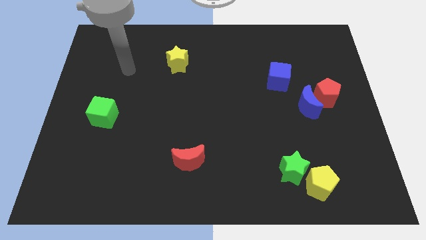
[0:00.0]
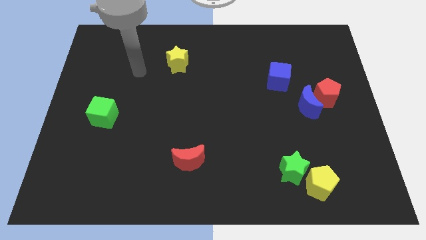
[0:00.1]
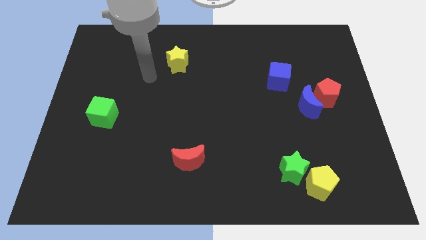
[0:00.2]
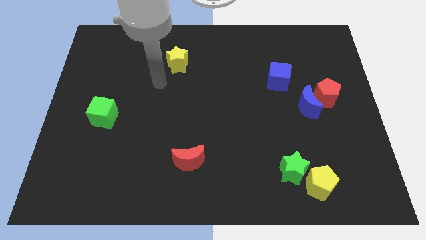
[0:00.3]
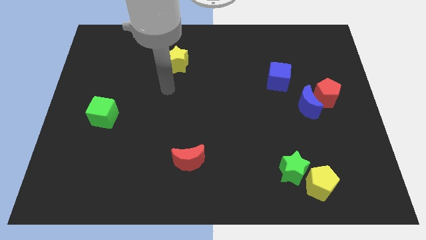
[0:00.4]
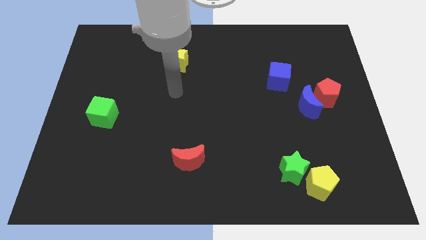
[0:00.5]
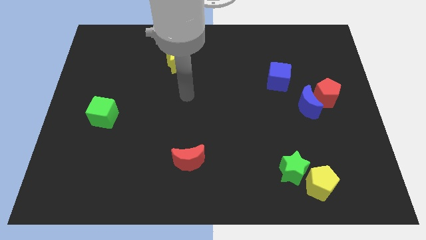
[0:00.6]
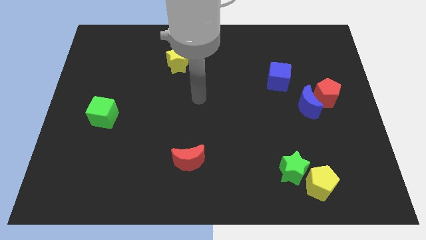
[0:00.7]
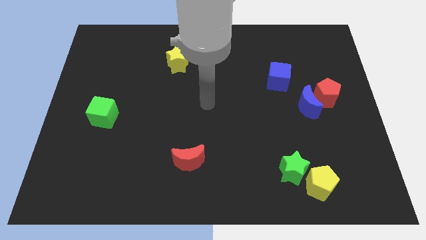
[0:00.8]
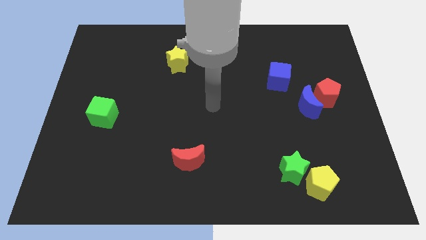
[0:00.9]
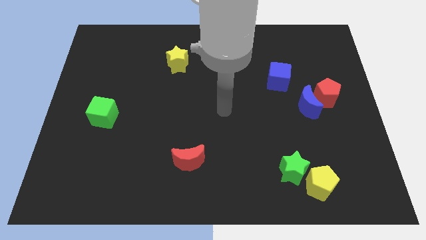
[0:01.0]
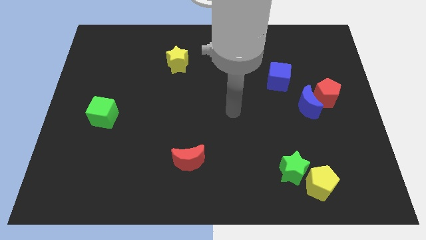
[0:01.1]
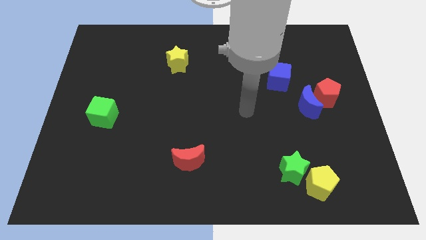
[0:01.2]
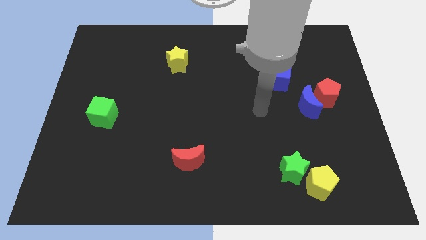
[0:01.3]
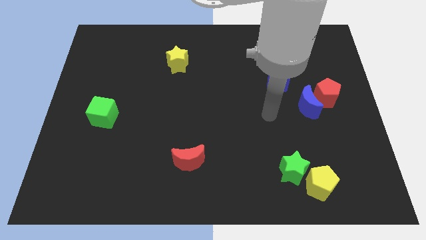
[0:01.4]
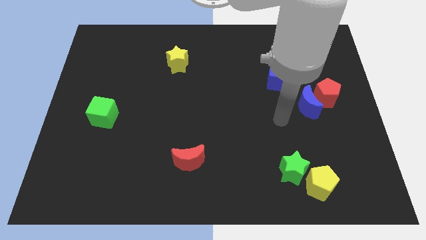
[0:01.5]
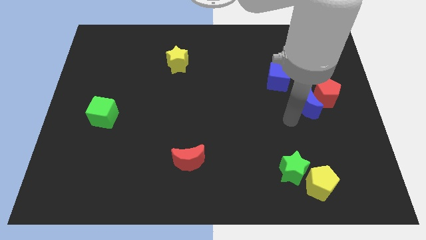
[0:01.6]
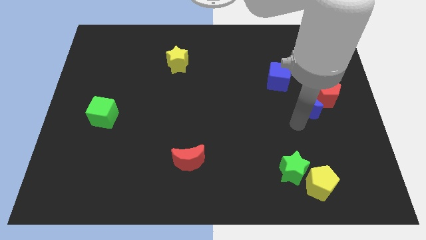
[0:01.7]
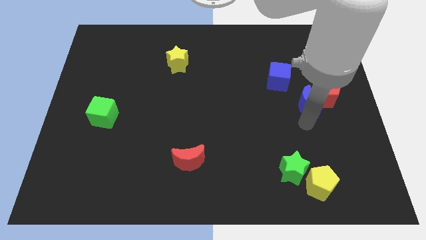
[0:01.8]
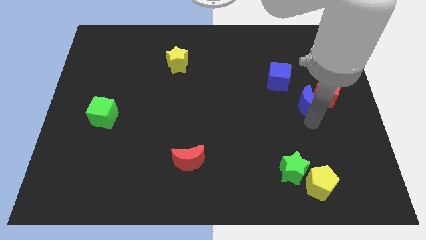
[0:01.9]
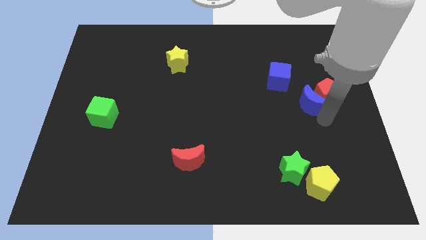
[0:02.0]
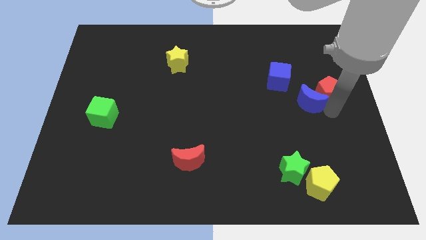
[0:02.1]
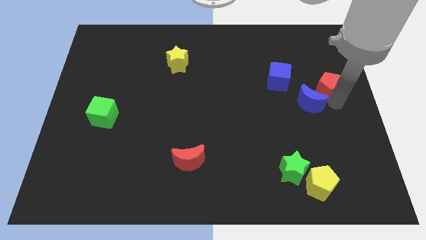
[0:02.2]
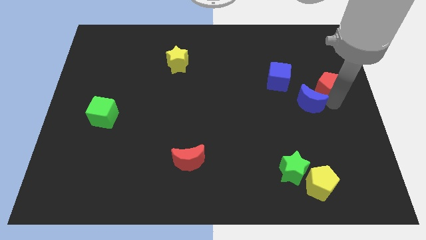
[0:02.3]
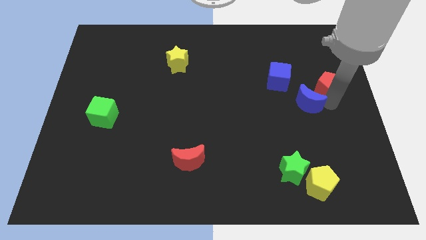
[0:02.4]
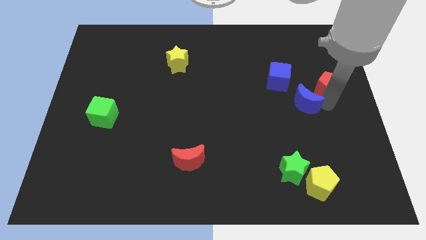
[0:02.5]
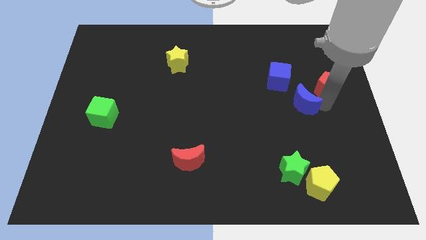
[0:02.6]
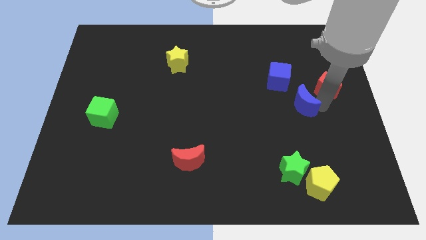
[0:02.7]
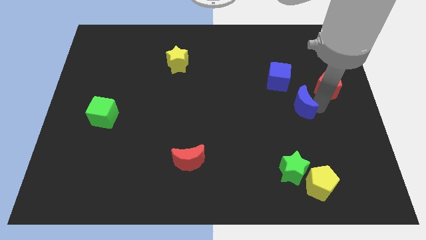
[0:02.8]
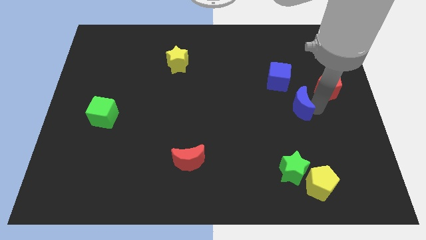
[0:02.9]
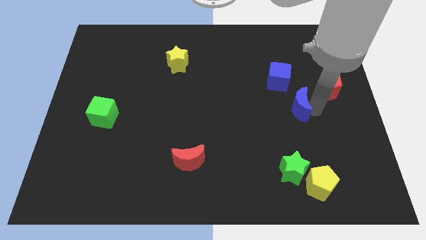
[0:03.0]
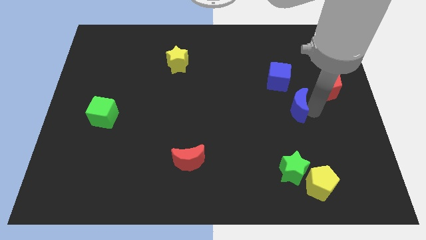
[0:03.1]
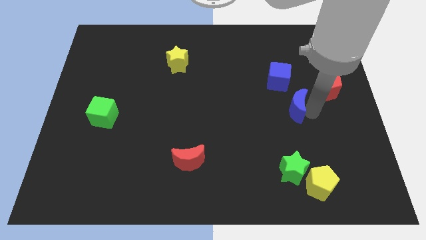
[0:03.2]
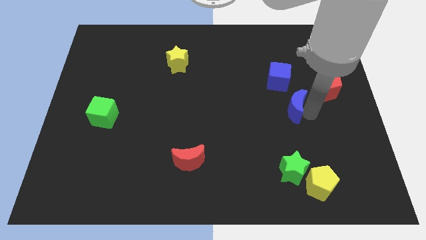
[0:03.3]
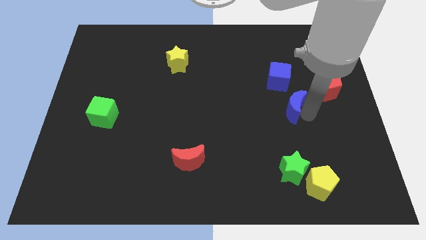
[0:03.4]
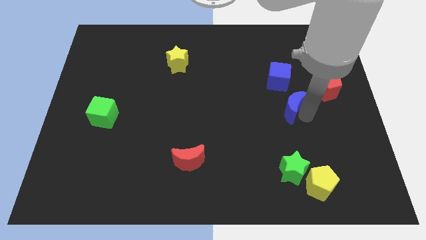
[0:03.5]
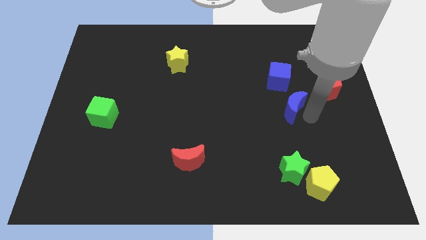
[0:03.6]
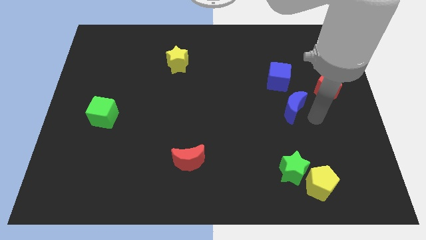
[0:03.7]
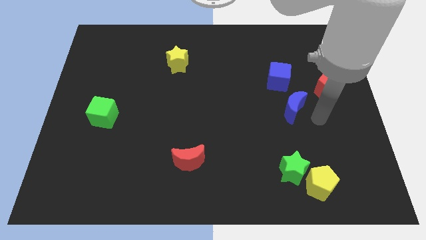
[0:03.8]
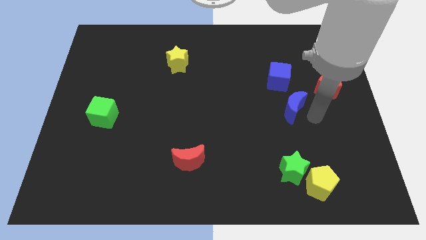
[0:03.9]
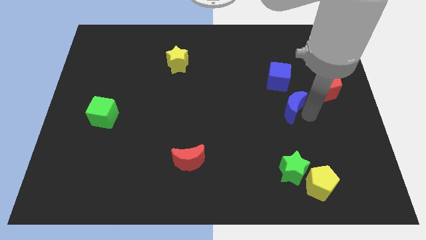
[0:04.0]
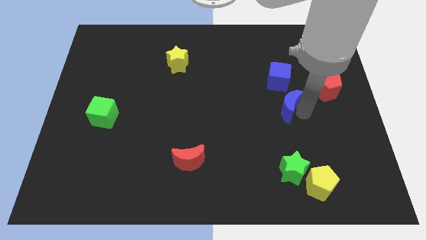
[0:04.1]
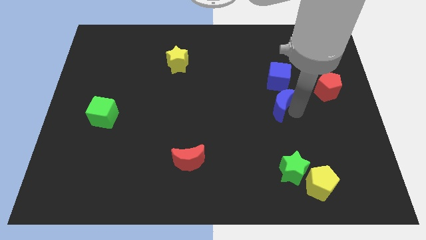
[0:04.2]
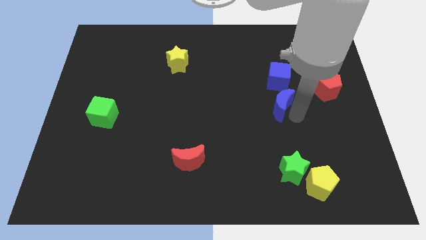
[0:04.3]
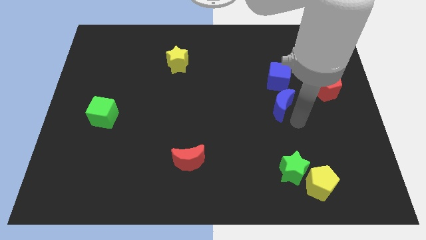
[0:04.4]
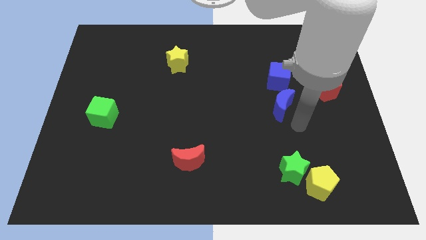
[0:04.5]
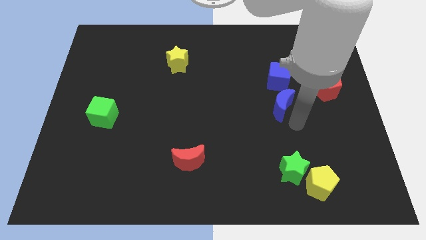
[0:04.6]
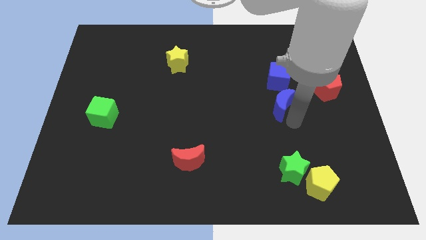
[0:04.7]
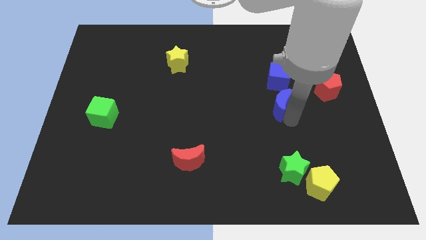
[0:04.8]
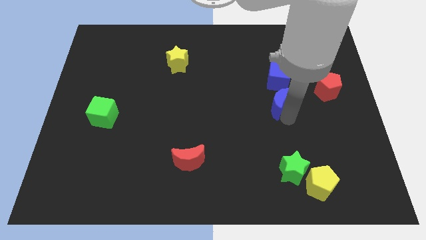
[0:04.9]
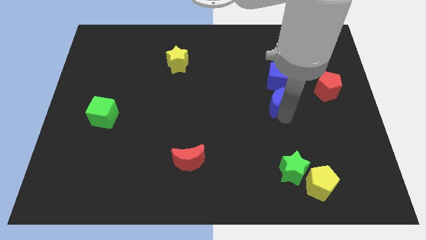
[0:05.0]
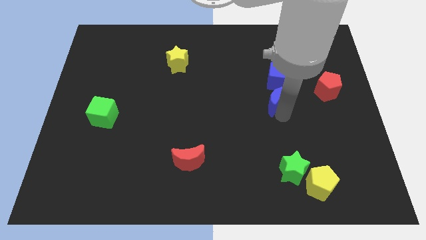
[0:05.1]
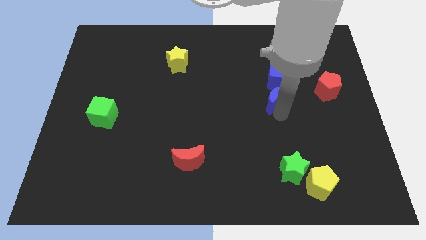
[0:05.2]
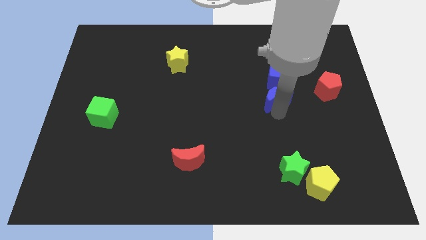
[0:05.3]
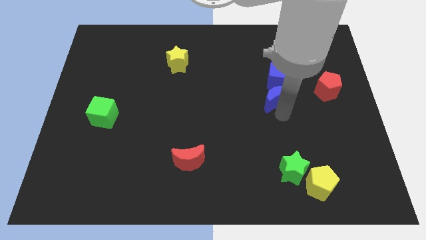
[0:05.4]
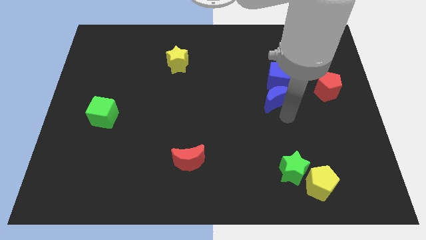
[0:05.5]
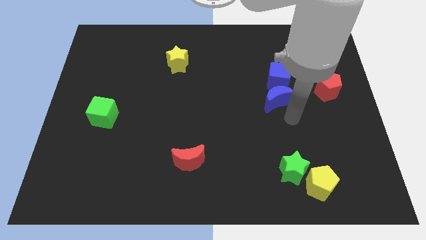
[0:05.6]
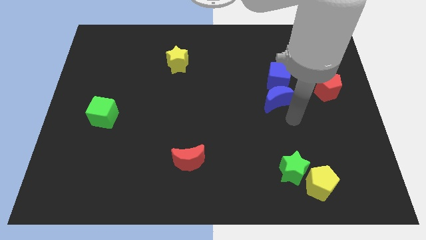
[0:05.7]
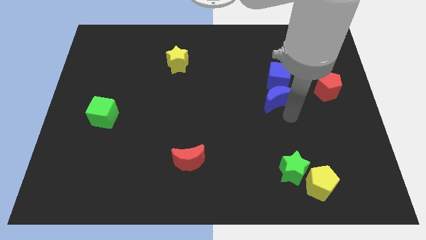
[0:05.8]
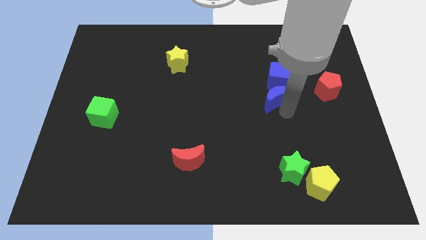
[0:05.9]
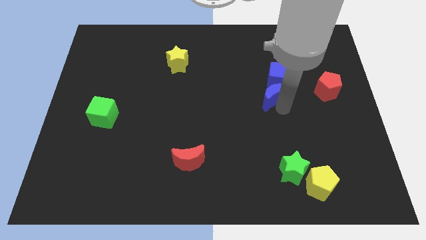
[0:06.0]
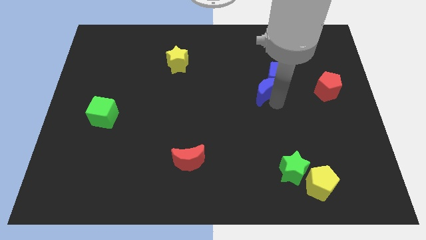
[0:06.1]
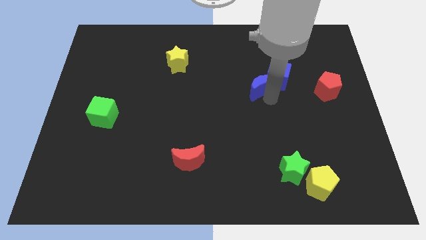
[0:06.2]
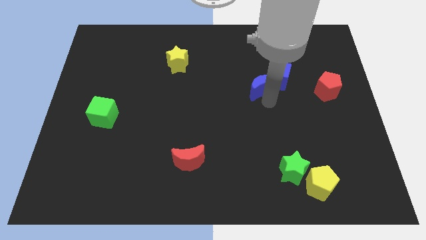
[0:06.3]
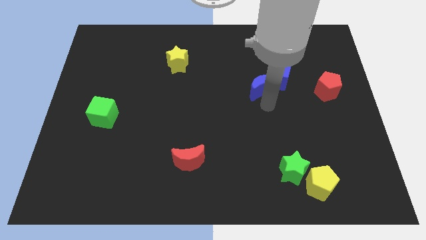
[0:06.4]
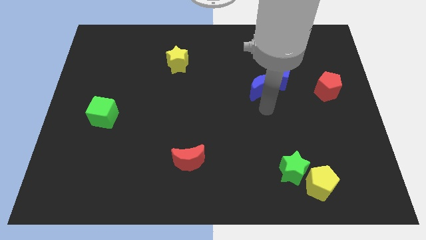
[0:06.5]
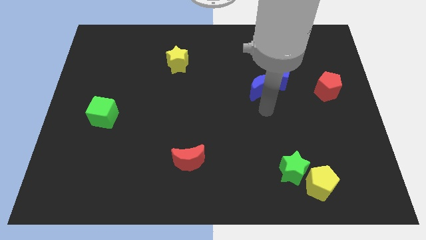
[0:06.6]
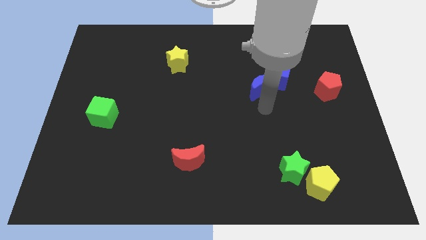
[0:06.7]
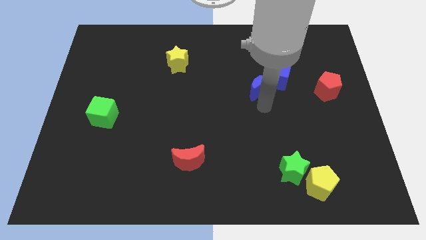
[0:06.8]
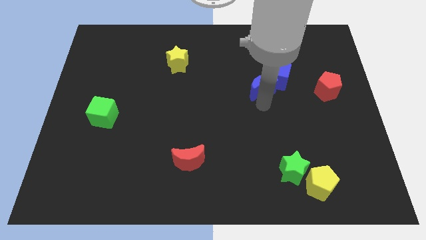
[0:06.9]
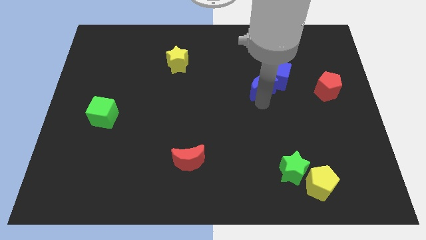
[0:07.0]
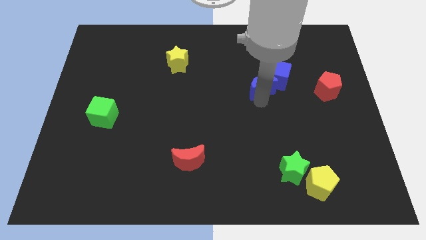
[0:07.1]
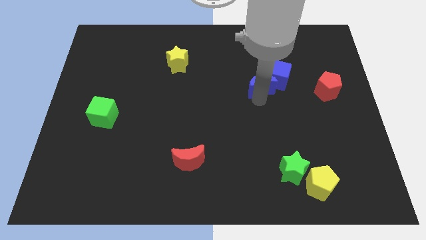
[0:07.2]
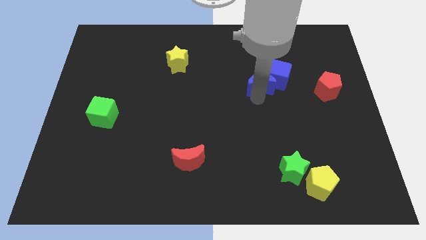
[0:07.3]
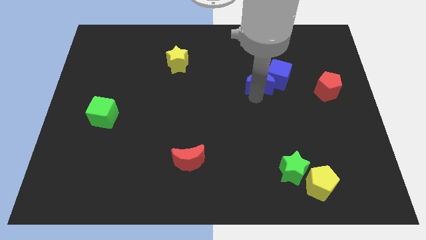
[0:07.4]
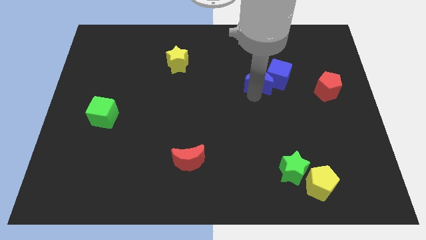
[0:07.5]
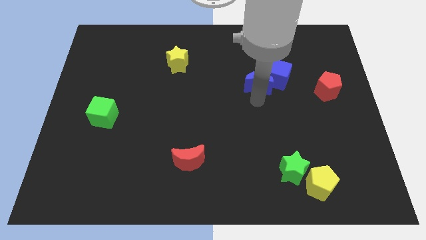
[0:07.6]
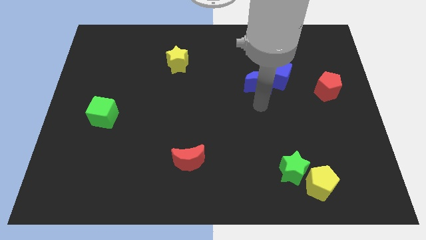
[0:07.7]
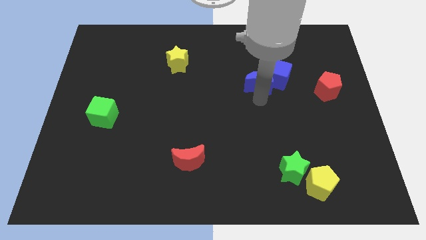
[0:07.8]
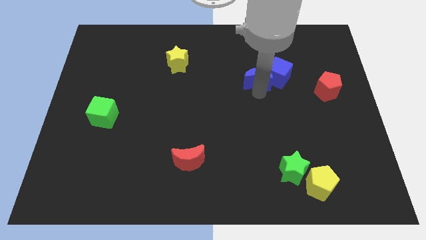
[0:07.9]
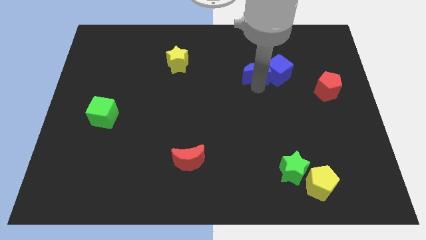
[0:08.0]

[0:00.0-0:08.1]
put the blue moon to the top left of the blue cube
